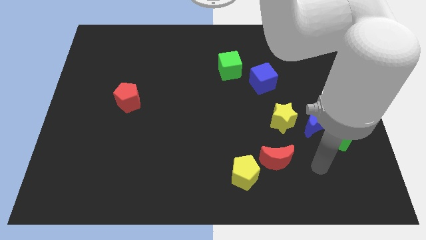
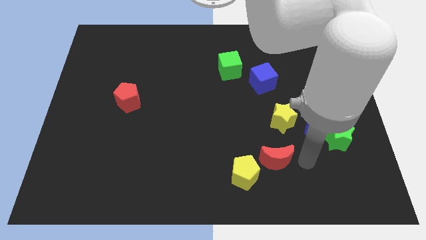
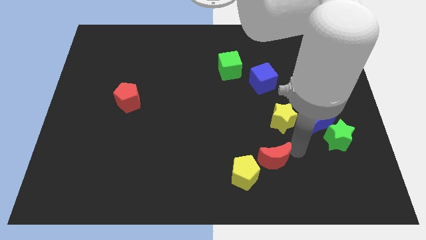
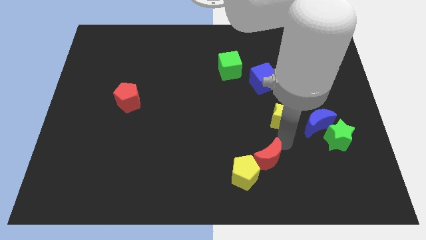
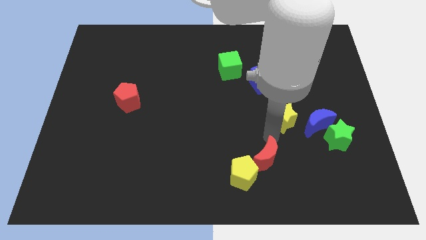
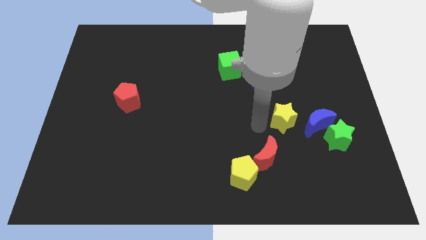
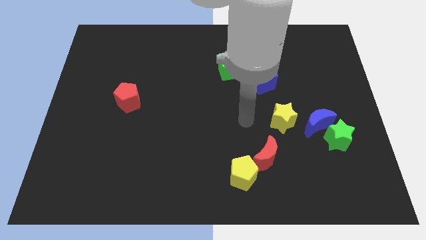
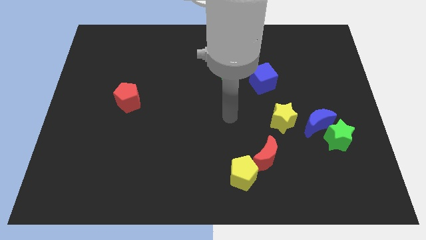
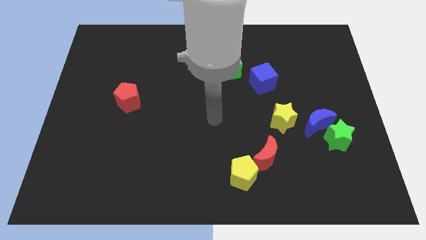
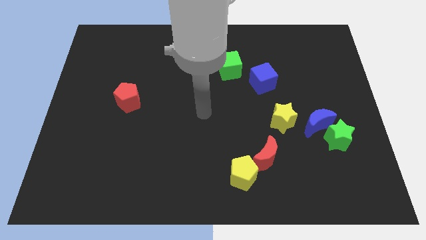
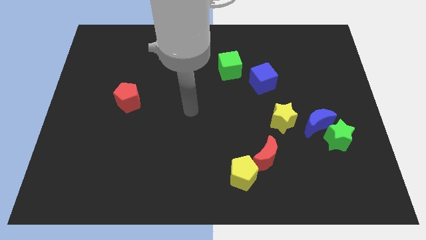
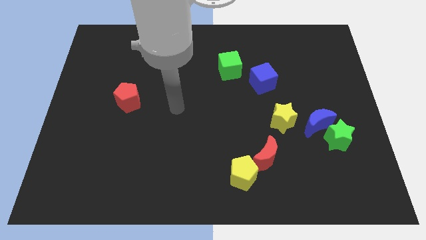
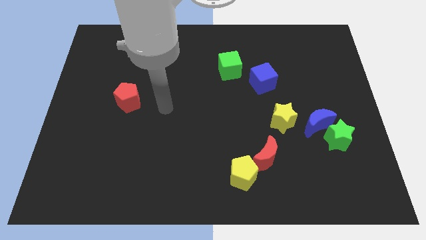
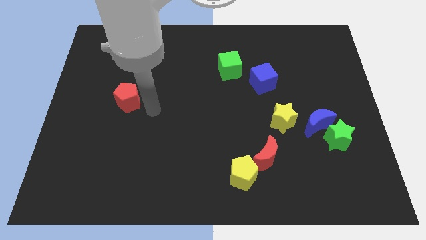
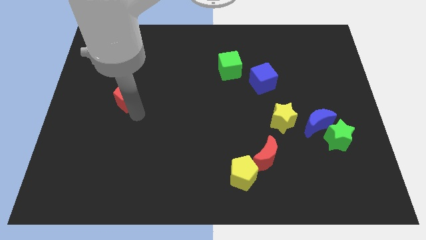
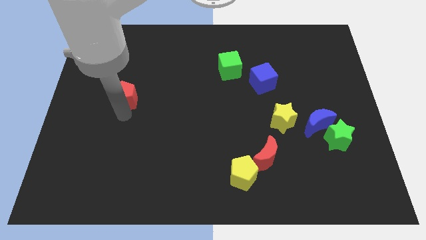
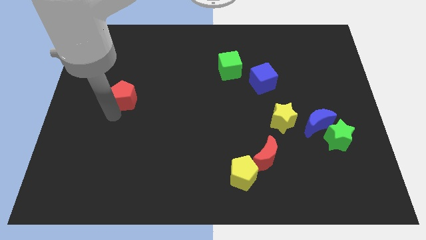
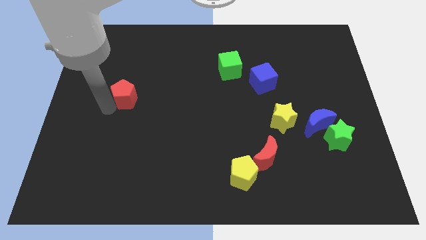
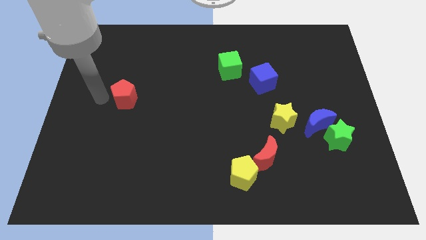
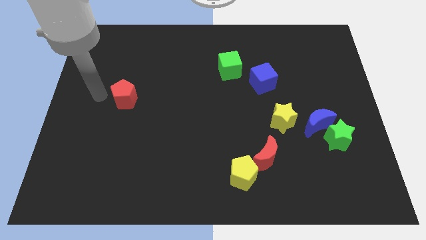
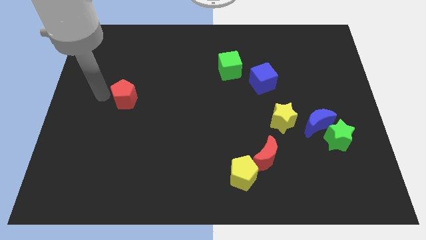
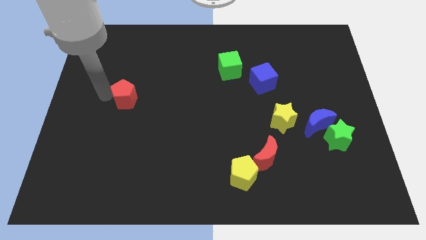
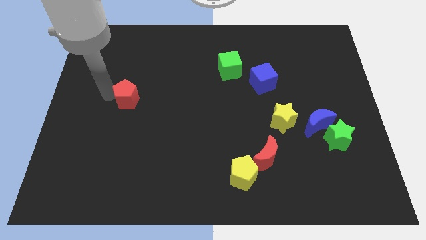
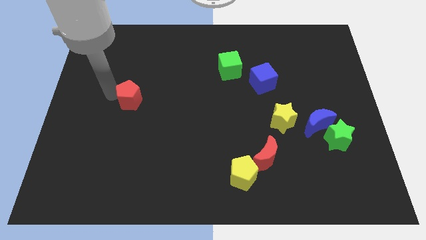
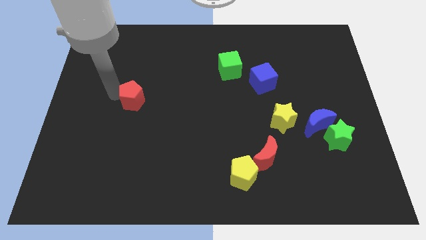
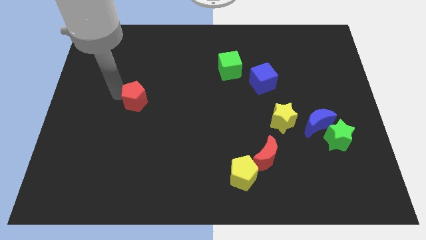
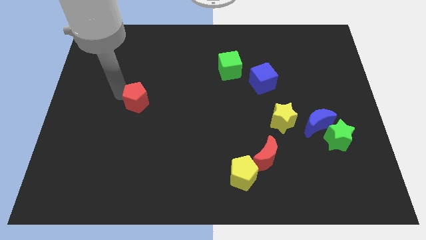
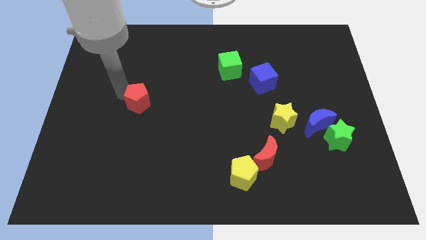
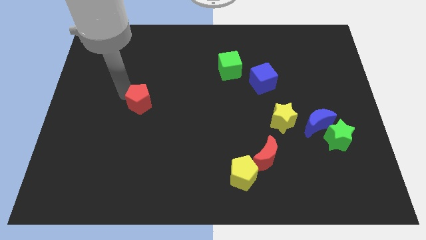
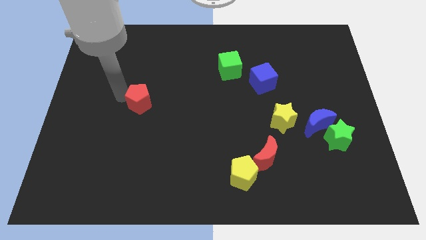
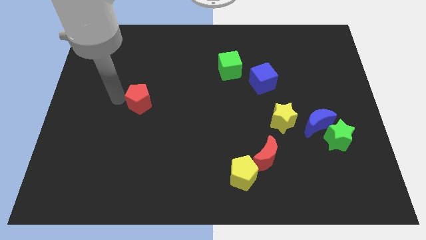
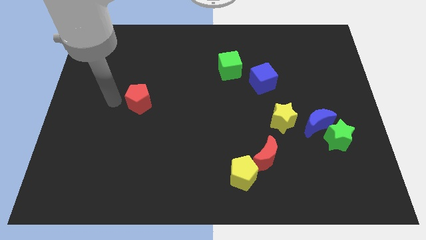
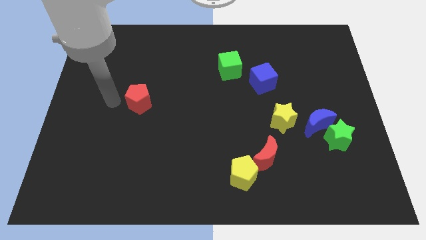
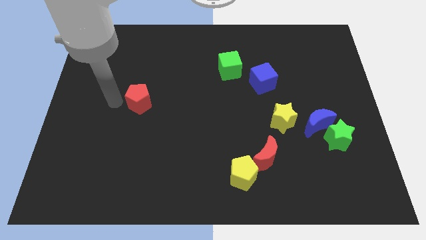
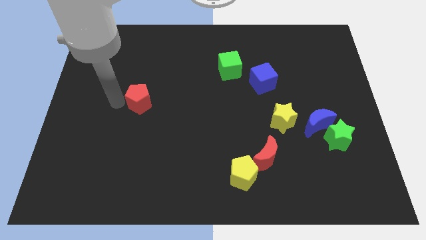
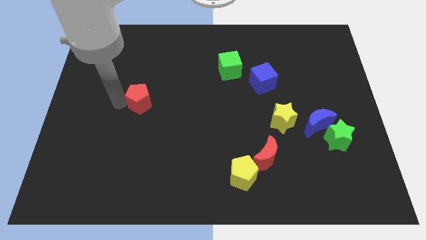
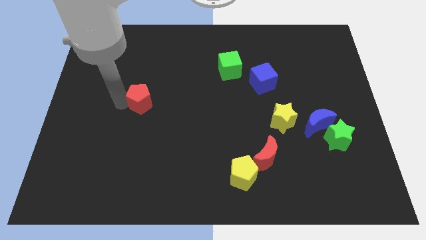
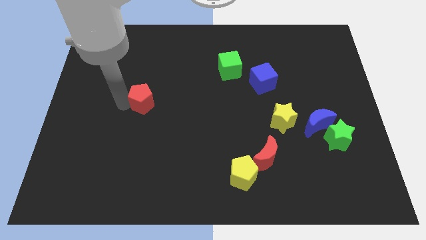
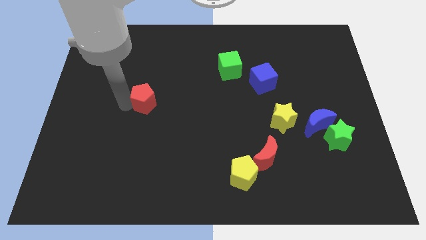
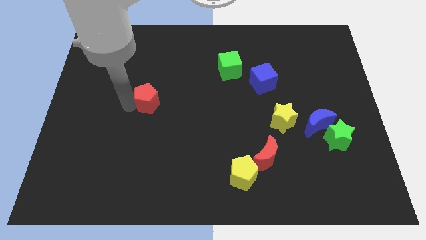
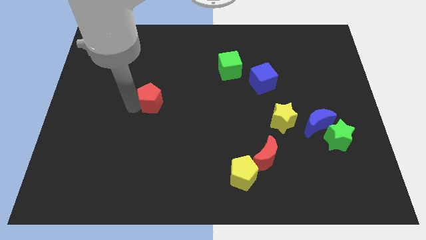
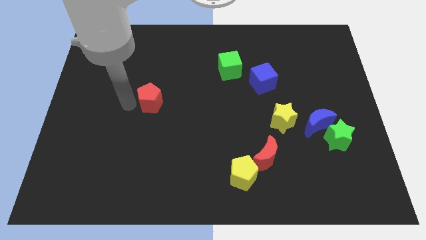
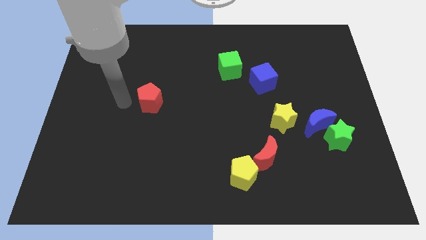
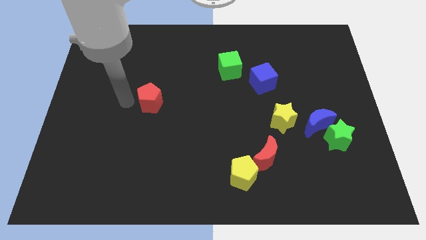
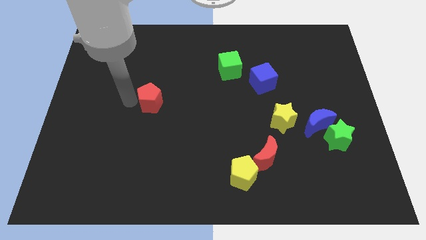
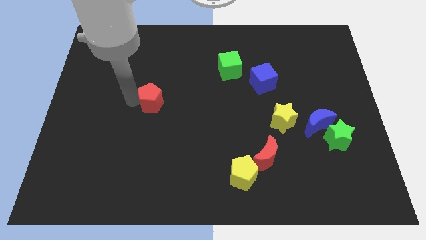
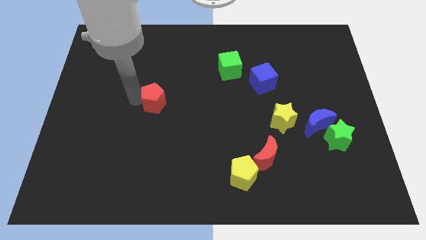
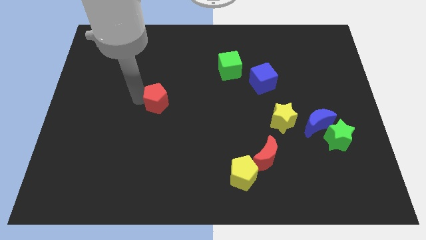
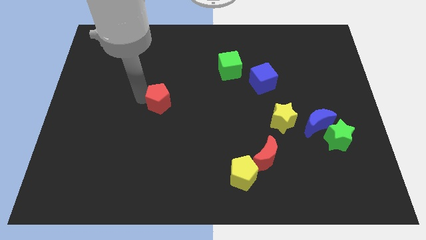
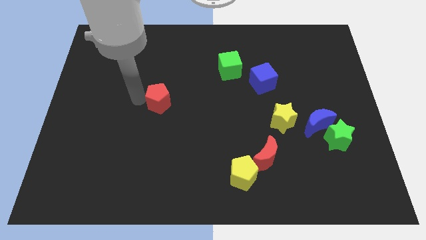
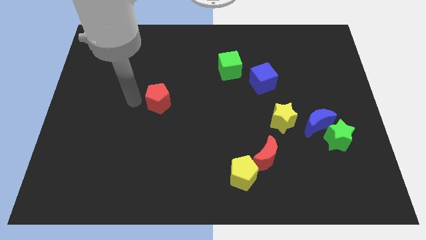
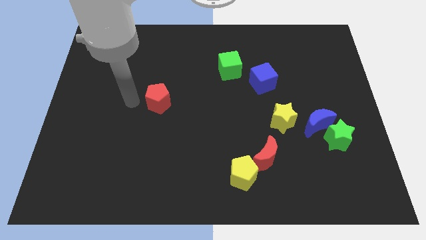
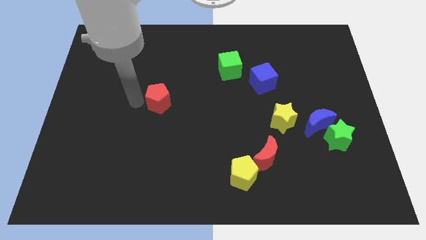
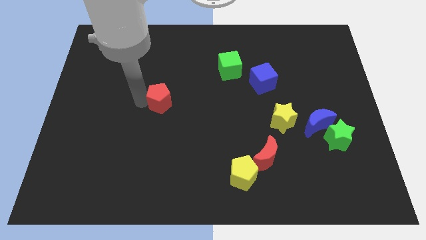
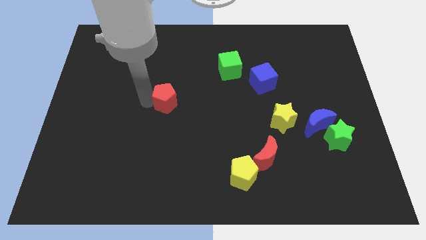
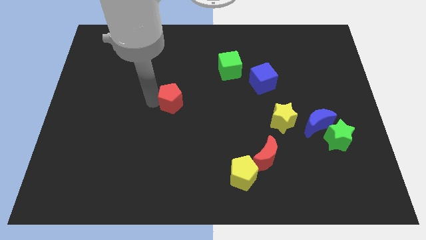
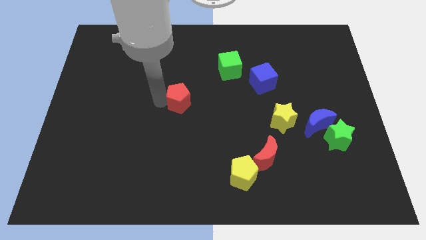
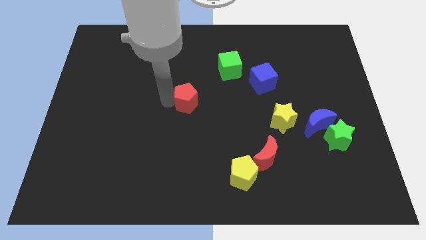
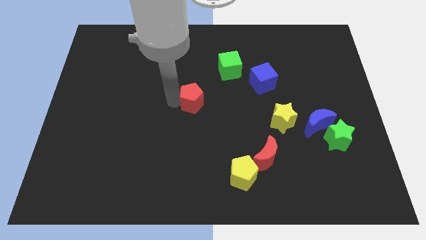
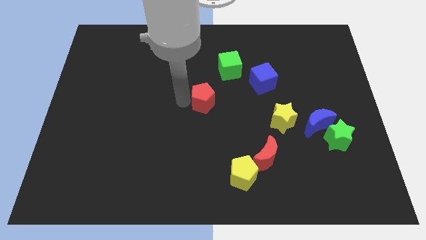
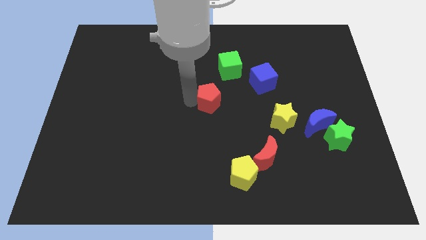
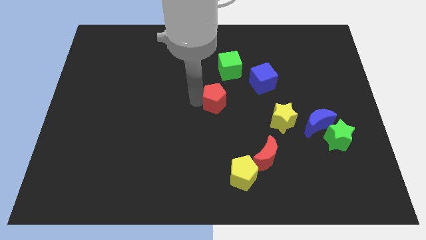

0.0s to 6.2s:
push the red pentagon to the right

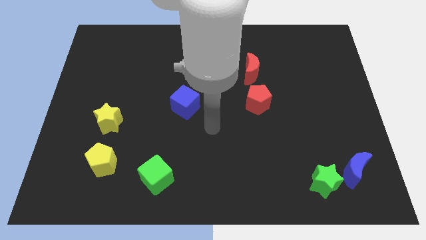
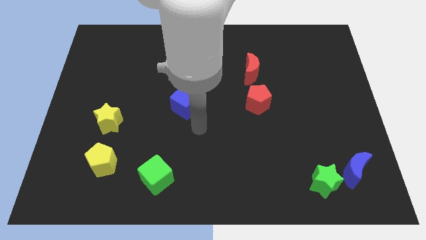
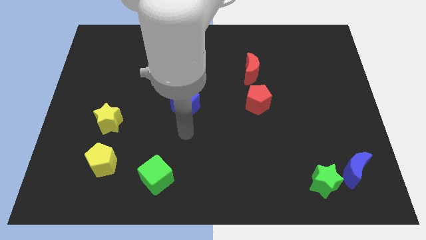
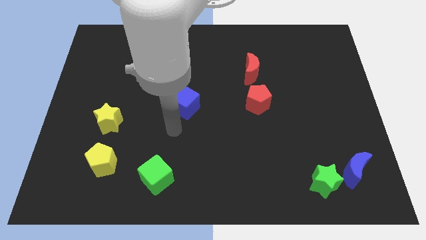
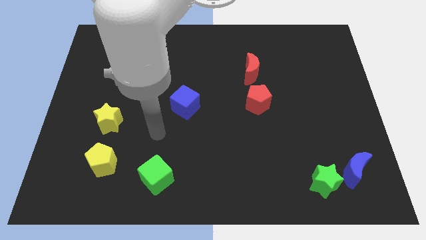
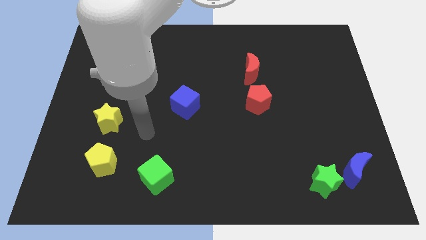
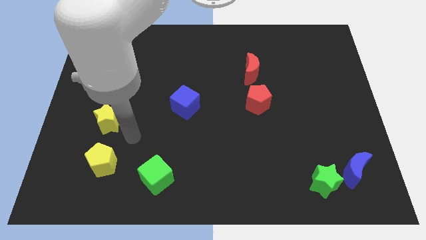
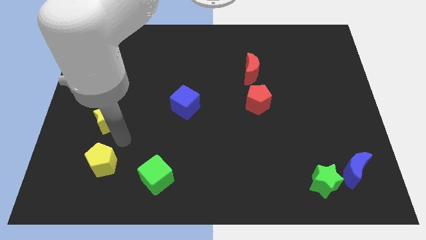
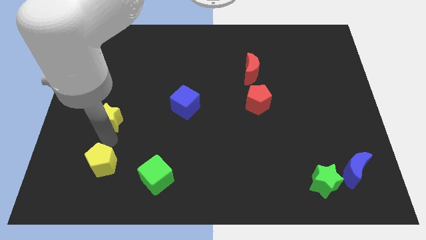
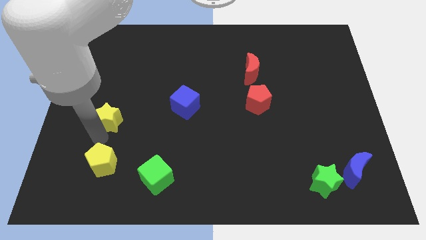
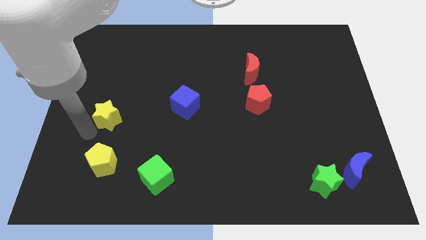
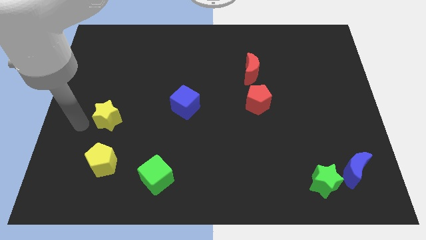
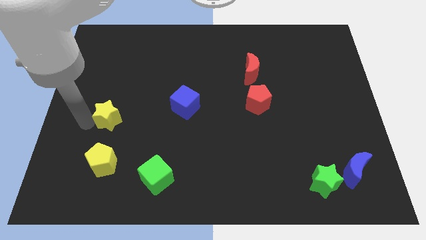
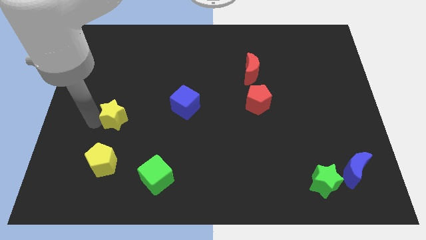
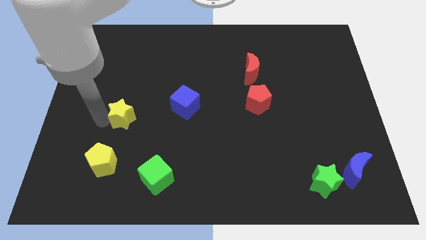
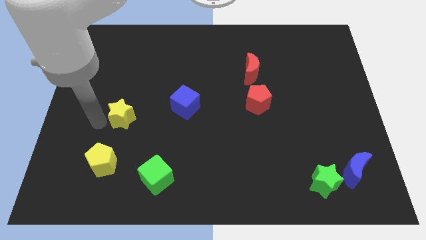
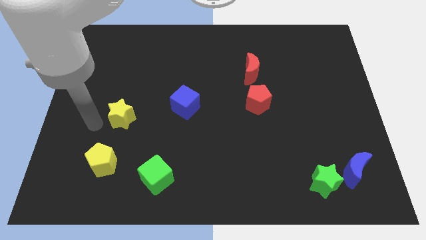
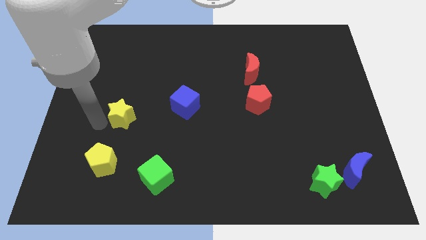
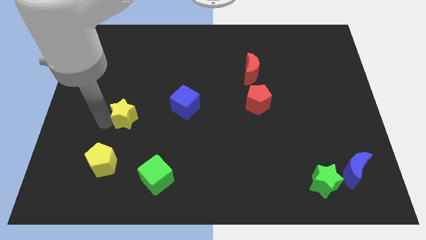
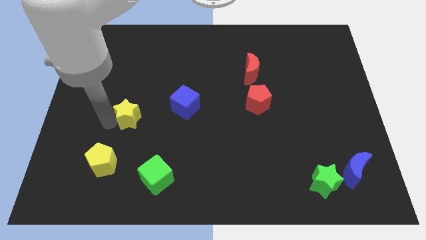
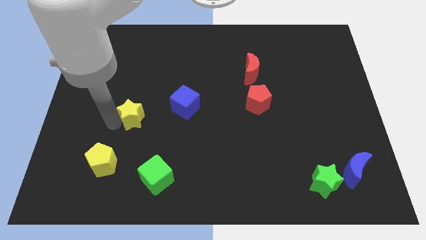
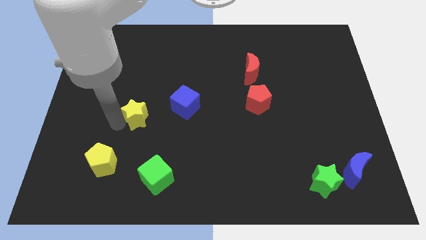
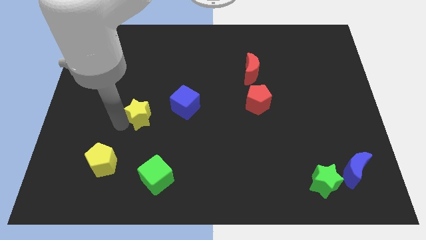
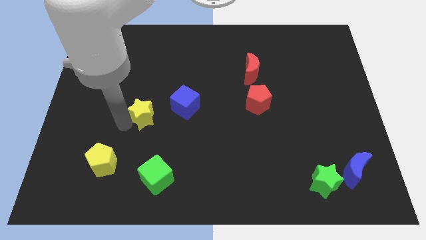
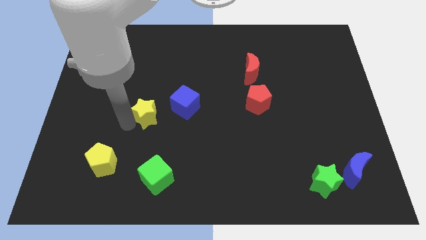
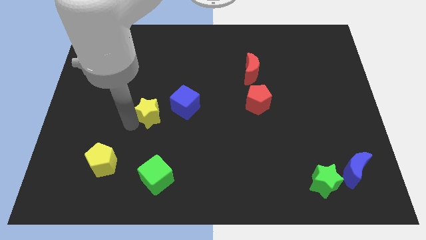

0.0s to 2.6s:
push the yellow star diagonally upwards and to the right a little
